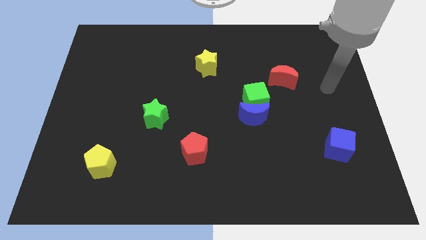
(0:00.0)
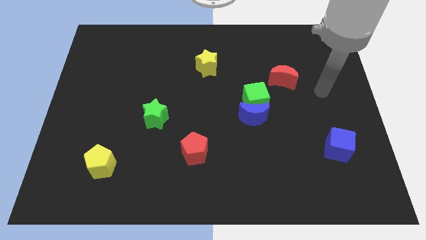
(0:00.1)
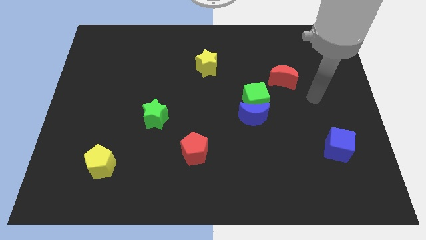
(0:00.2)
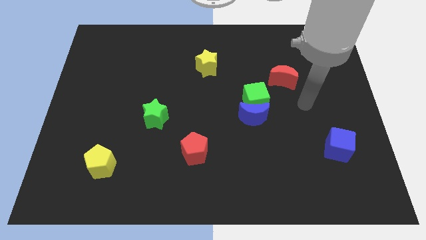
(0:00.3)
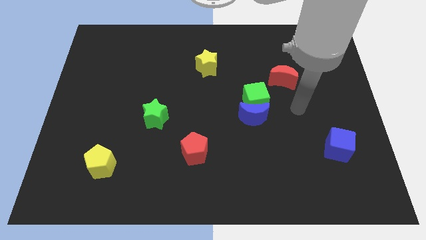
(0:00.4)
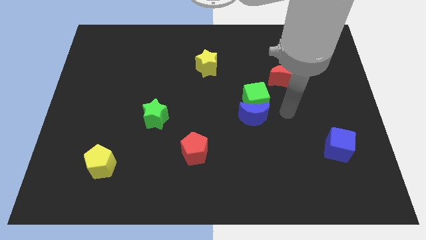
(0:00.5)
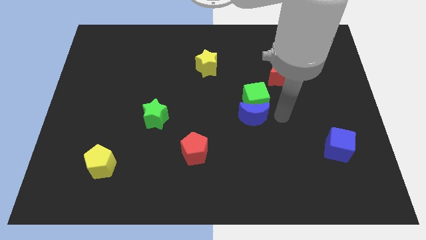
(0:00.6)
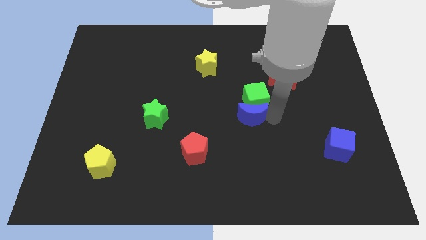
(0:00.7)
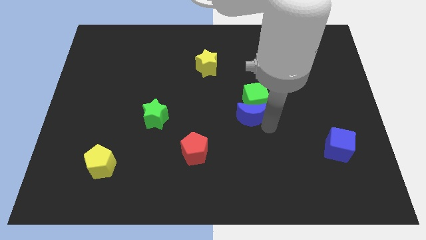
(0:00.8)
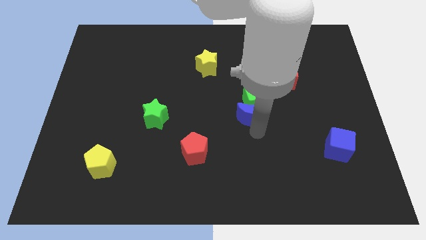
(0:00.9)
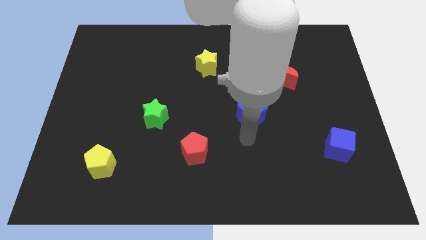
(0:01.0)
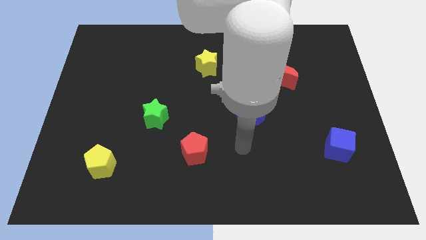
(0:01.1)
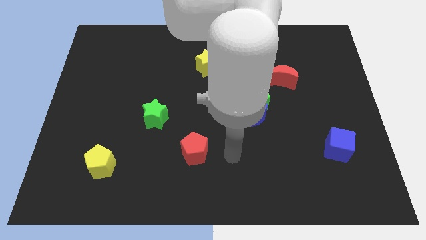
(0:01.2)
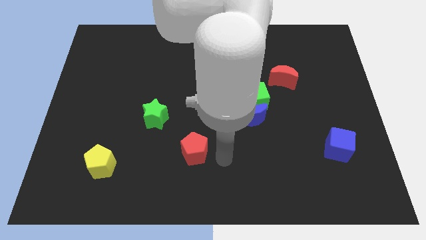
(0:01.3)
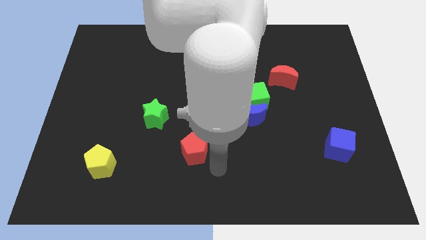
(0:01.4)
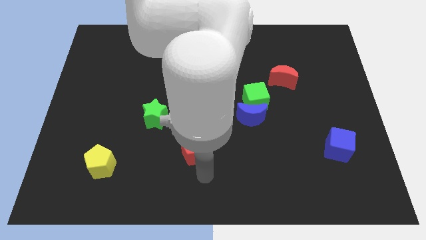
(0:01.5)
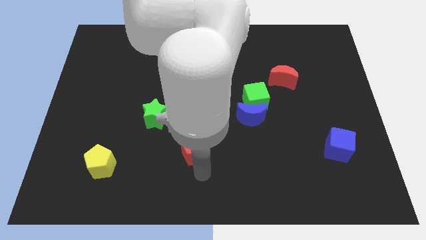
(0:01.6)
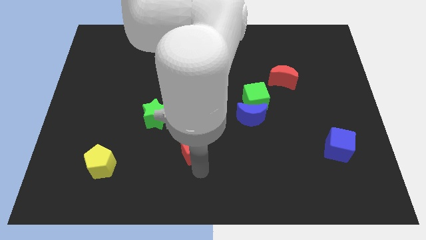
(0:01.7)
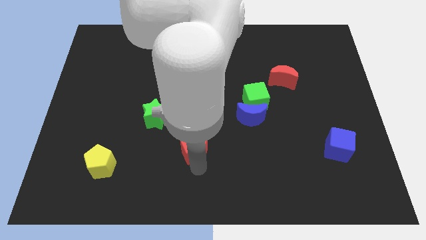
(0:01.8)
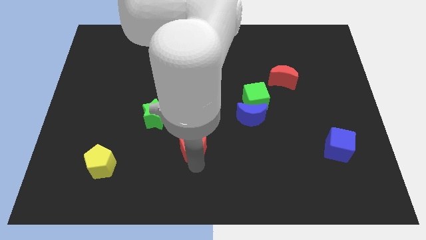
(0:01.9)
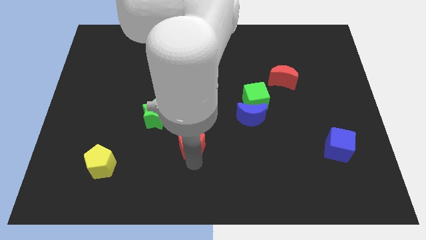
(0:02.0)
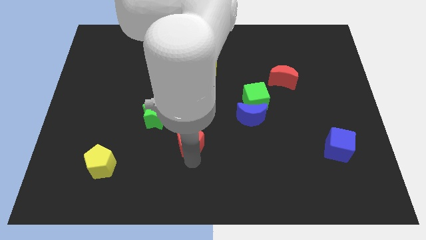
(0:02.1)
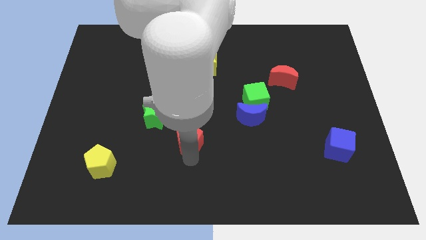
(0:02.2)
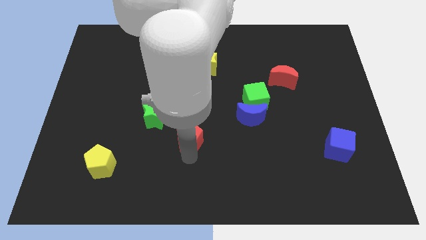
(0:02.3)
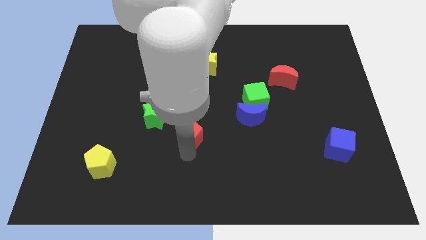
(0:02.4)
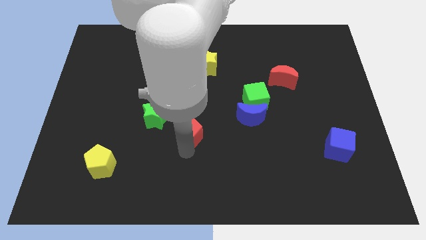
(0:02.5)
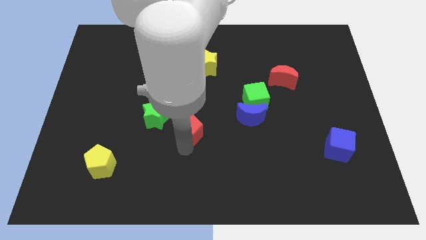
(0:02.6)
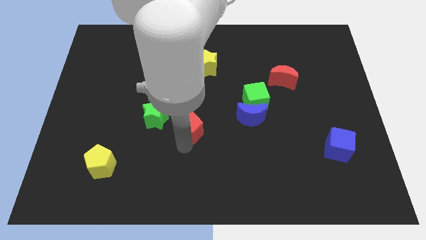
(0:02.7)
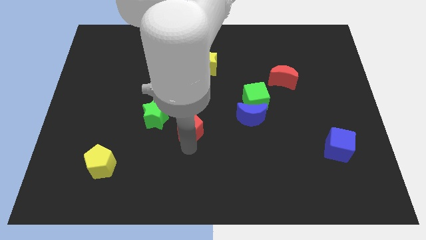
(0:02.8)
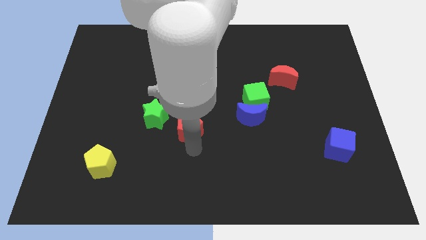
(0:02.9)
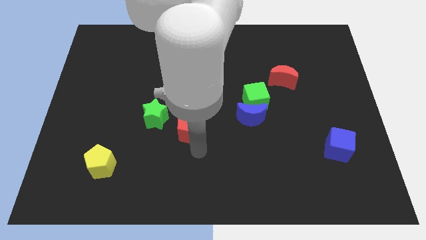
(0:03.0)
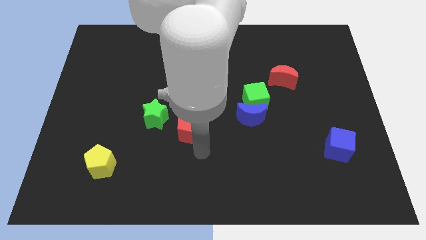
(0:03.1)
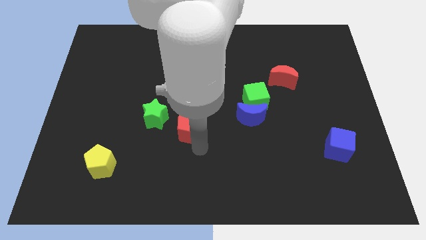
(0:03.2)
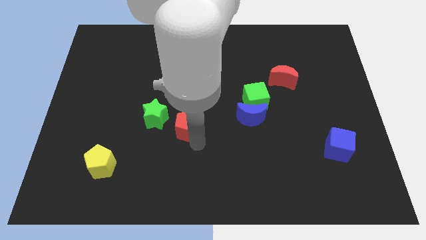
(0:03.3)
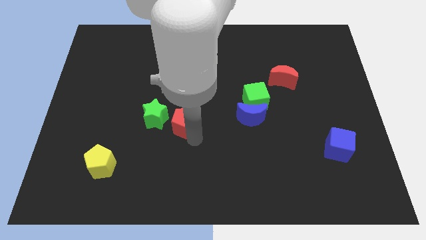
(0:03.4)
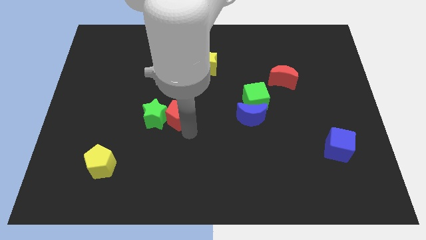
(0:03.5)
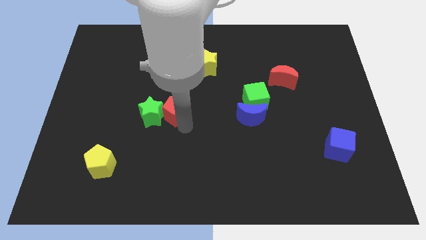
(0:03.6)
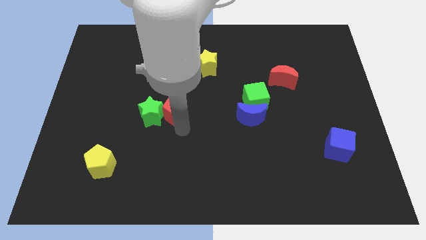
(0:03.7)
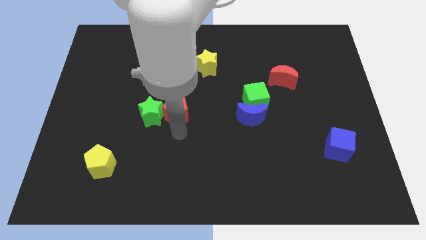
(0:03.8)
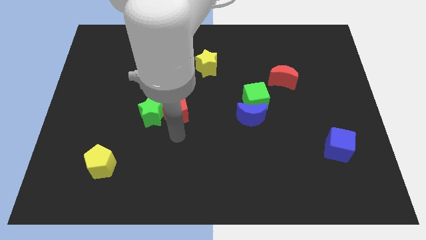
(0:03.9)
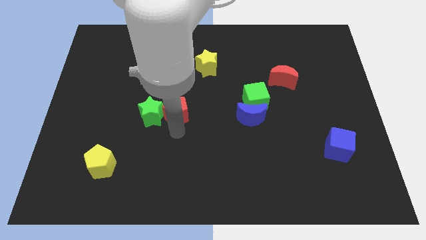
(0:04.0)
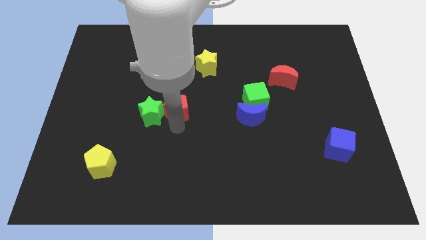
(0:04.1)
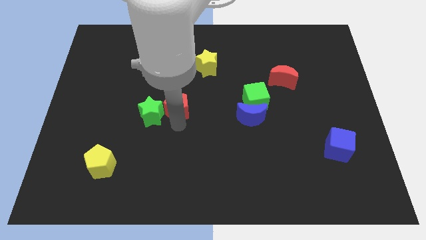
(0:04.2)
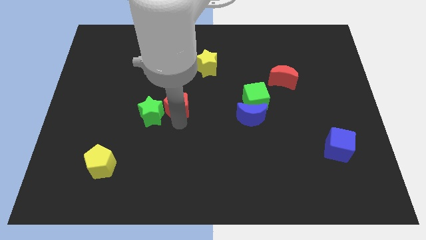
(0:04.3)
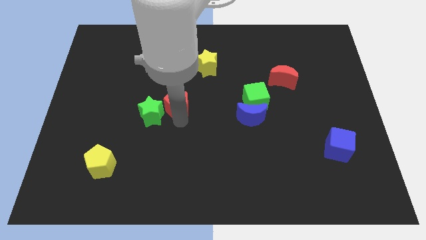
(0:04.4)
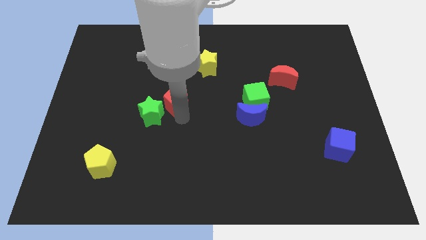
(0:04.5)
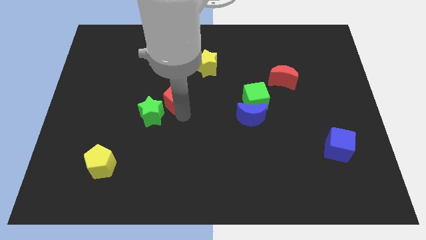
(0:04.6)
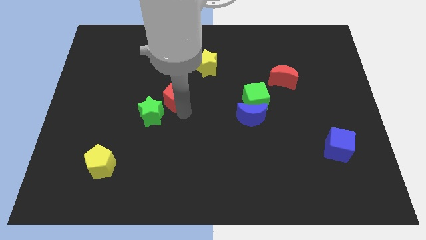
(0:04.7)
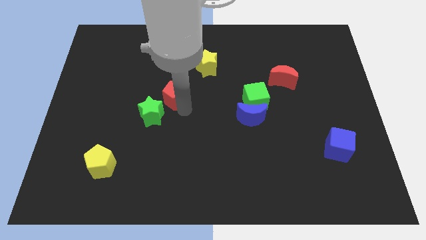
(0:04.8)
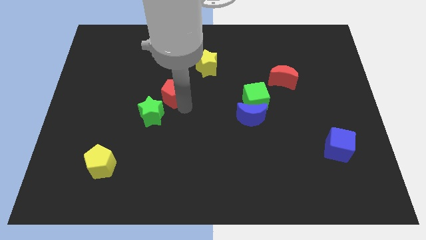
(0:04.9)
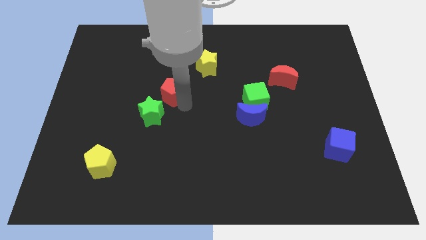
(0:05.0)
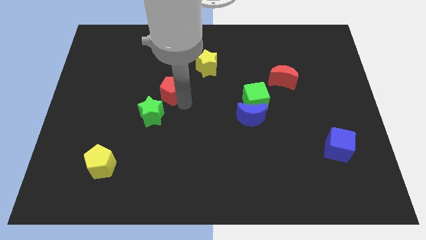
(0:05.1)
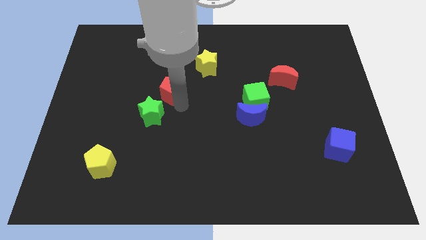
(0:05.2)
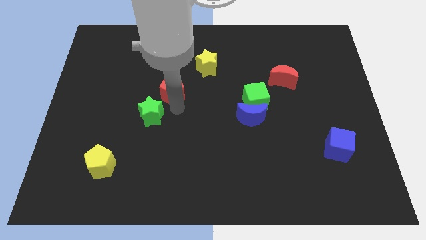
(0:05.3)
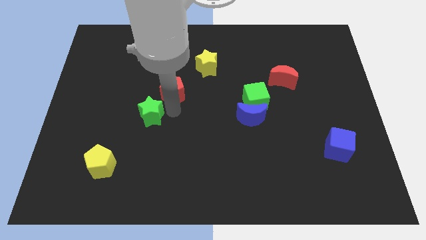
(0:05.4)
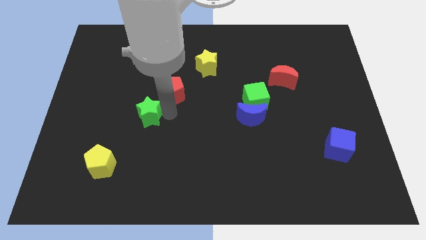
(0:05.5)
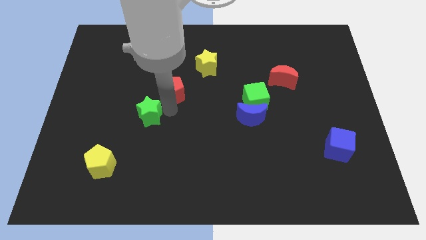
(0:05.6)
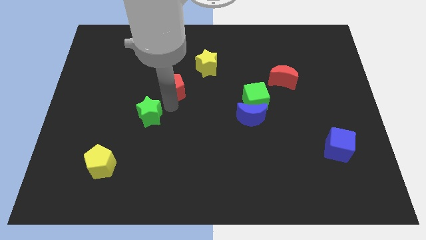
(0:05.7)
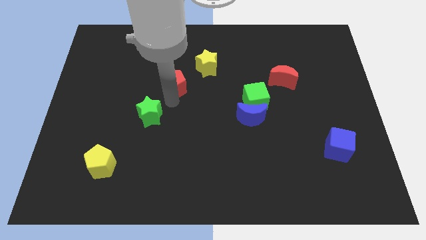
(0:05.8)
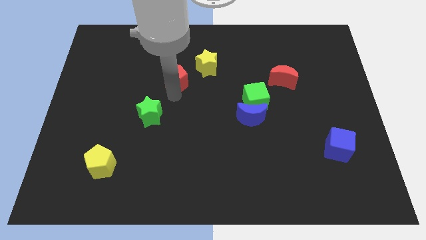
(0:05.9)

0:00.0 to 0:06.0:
put the red pentagon just left of the yellow star
